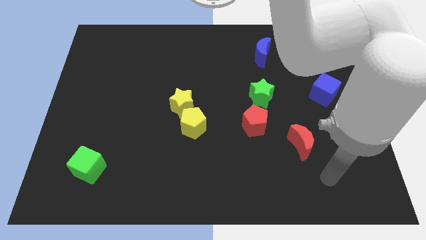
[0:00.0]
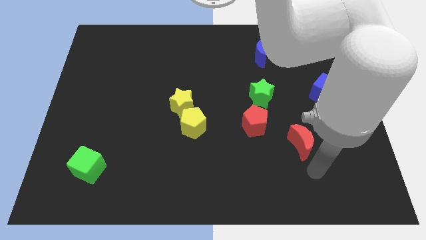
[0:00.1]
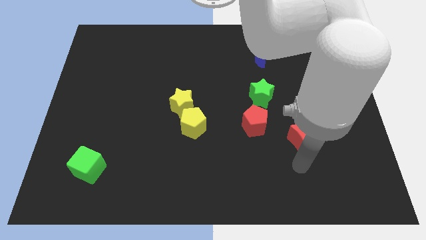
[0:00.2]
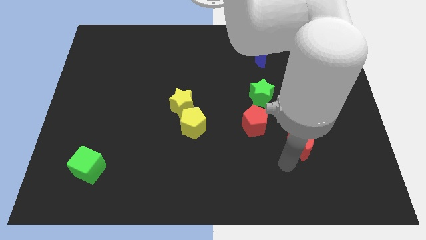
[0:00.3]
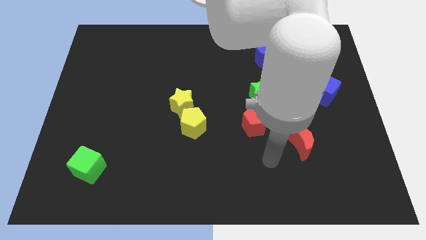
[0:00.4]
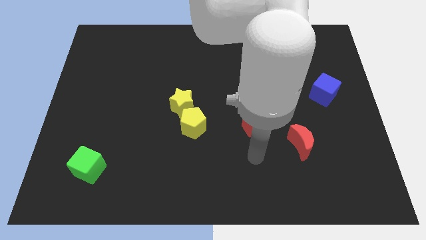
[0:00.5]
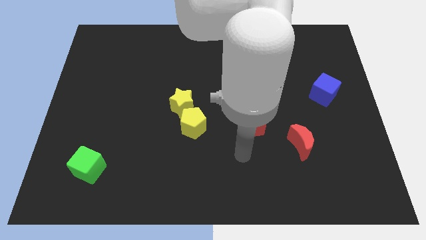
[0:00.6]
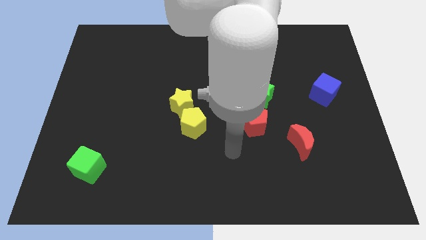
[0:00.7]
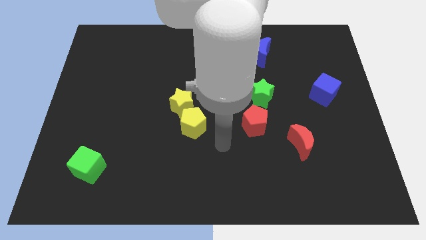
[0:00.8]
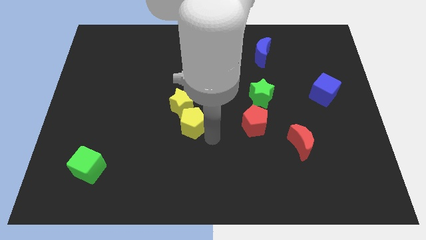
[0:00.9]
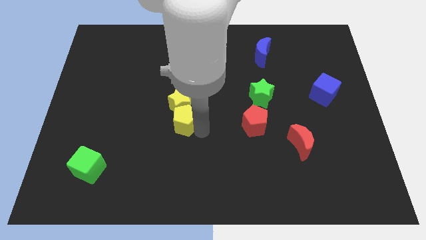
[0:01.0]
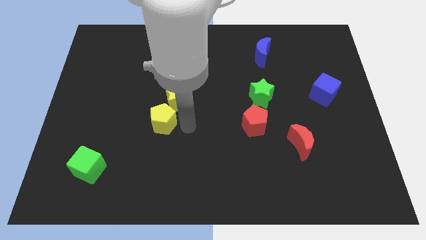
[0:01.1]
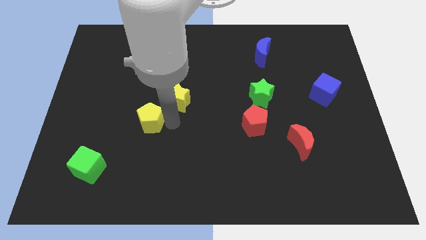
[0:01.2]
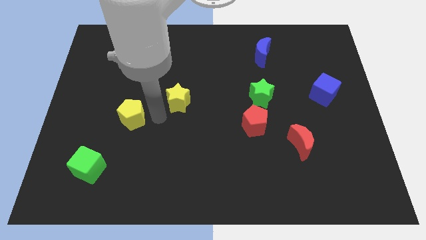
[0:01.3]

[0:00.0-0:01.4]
move the yellow star away from the yellow pentagon

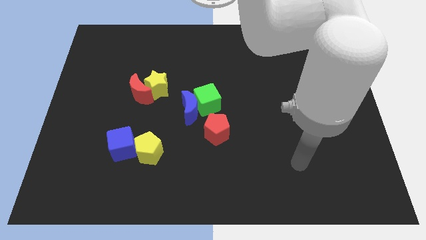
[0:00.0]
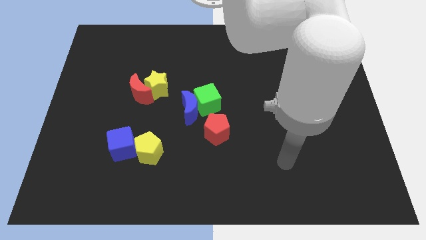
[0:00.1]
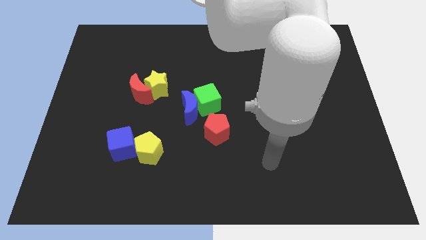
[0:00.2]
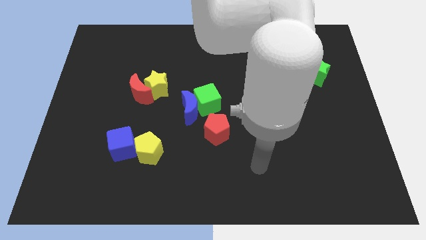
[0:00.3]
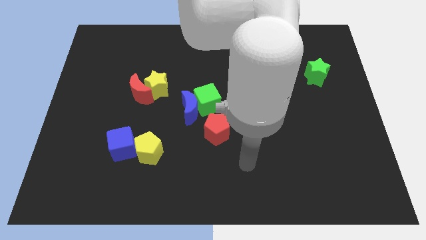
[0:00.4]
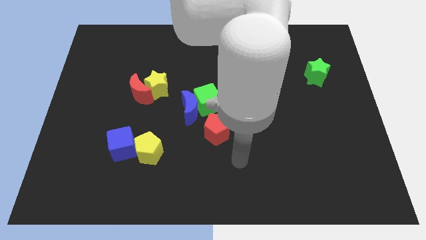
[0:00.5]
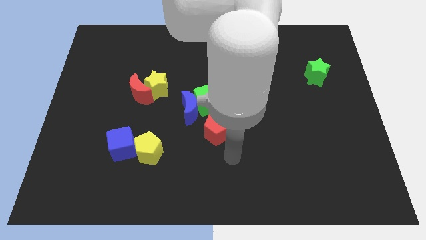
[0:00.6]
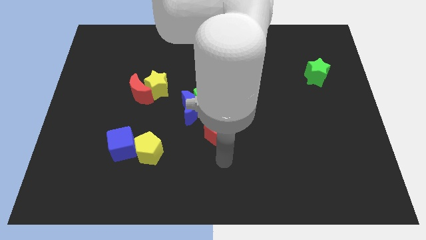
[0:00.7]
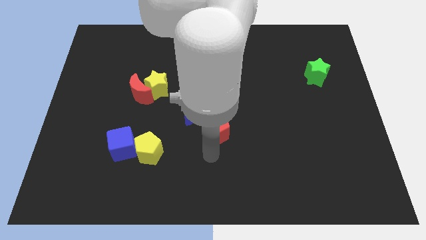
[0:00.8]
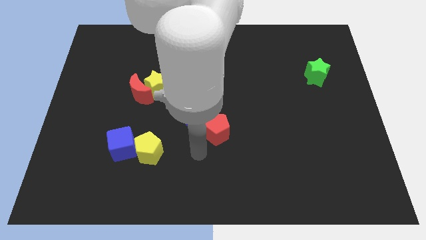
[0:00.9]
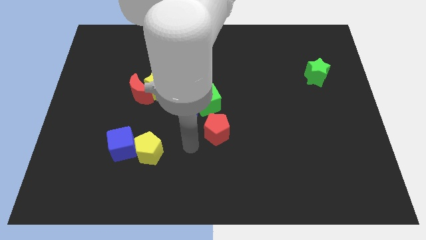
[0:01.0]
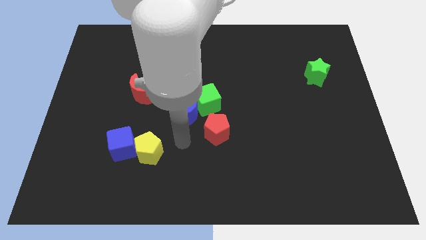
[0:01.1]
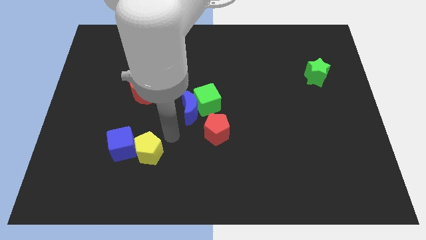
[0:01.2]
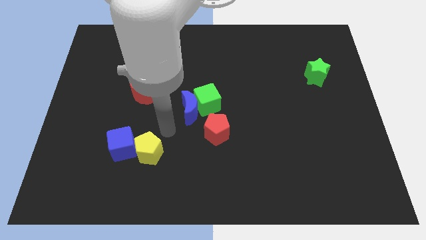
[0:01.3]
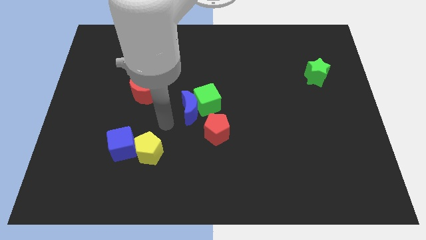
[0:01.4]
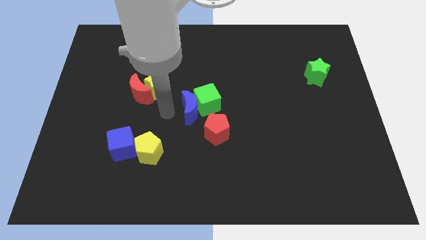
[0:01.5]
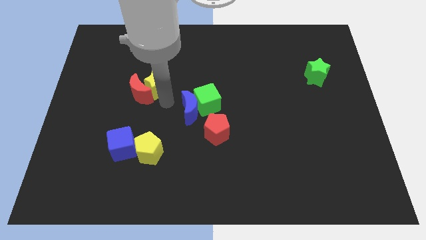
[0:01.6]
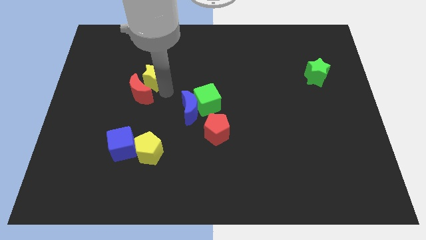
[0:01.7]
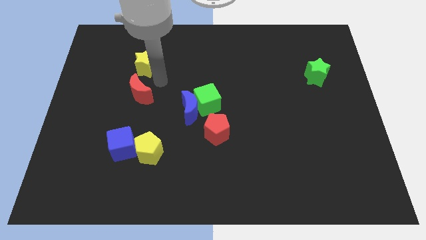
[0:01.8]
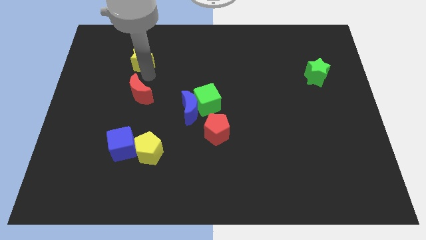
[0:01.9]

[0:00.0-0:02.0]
pull the red moon apart from the yellow star

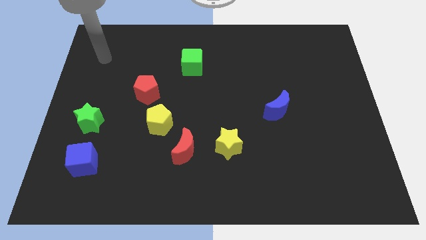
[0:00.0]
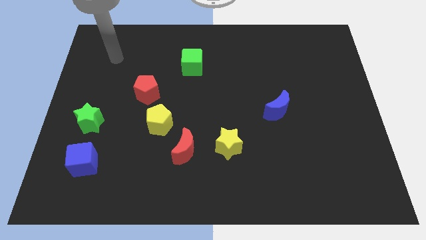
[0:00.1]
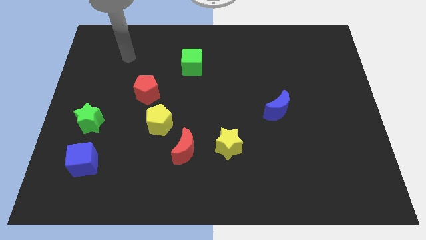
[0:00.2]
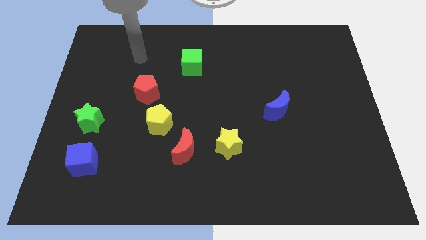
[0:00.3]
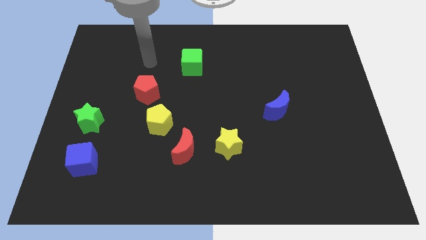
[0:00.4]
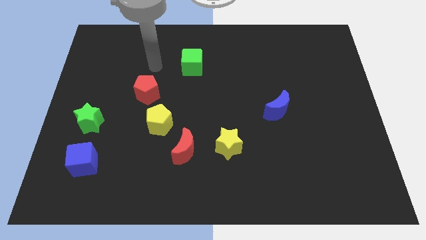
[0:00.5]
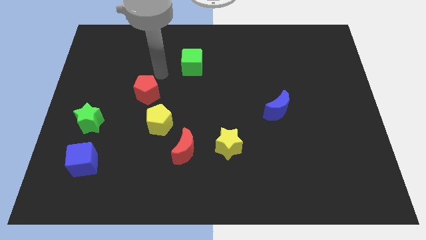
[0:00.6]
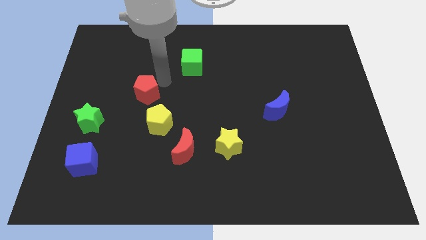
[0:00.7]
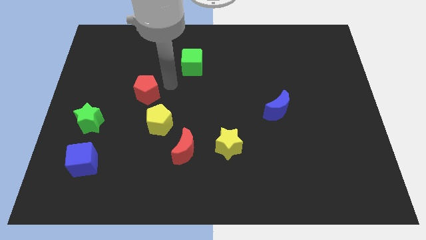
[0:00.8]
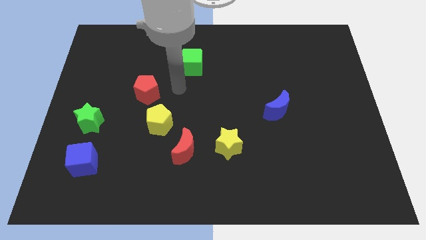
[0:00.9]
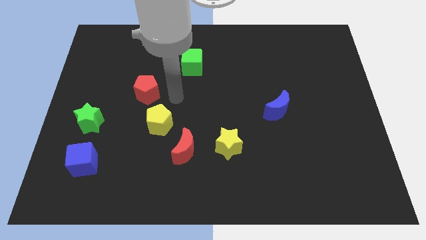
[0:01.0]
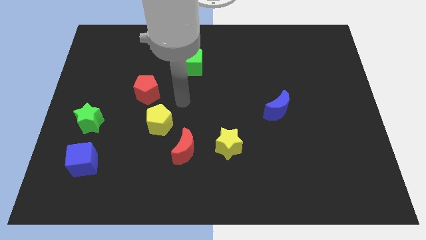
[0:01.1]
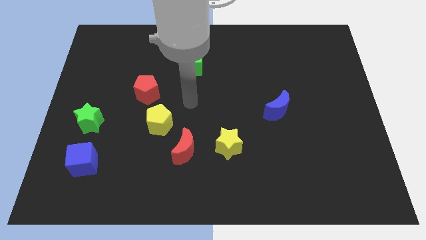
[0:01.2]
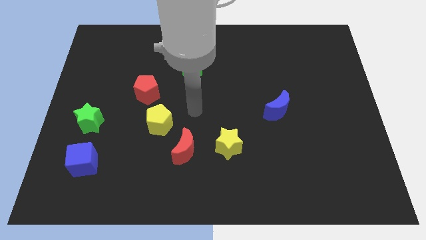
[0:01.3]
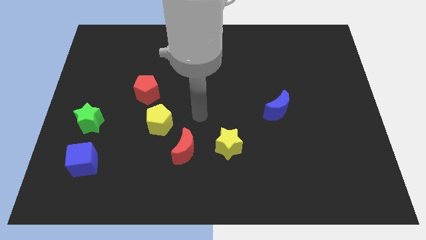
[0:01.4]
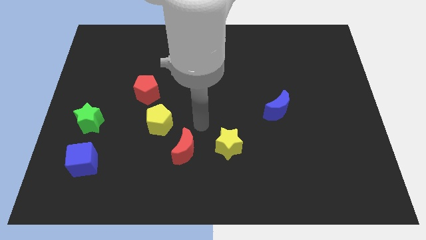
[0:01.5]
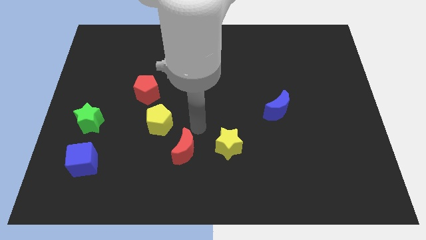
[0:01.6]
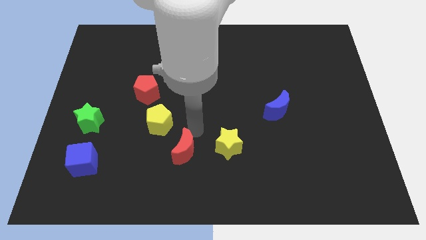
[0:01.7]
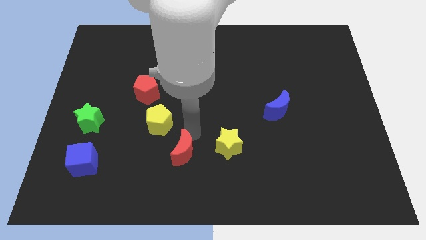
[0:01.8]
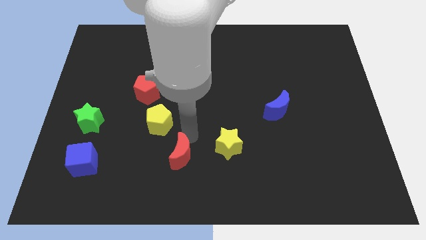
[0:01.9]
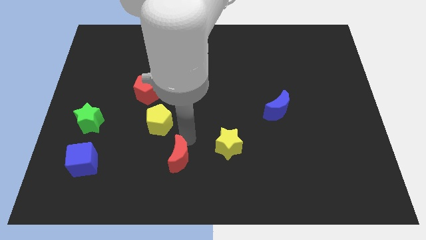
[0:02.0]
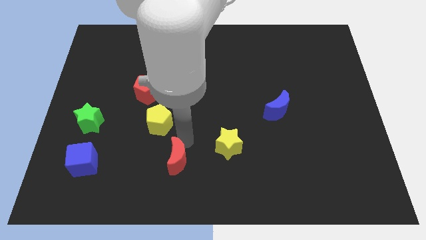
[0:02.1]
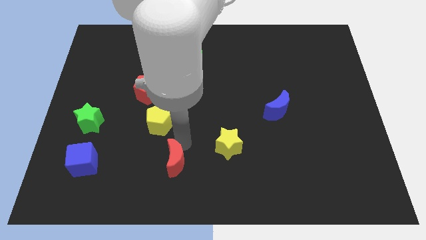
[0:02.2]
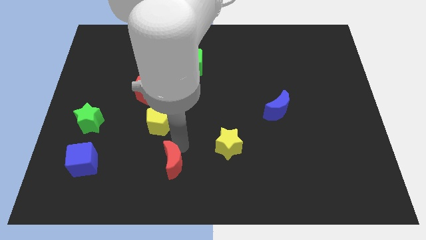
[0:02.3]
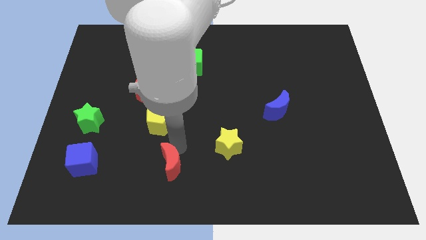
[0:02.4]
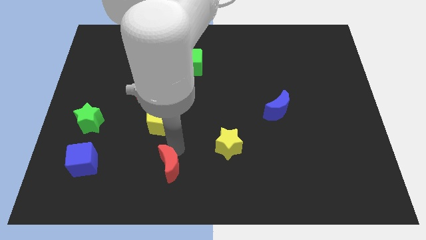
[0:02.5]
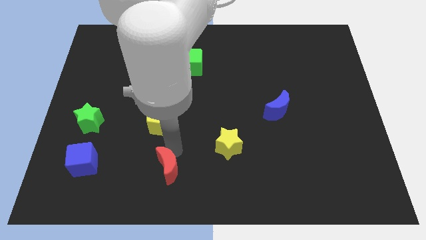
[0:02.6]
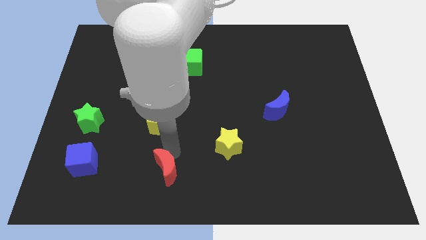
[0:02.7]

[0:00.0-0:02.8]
separate the red moon from the yellow pentagon and yellow star

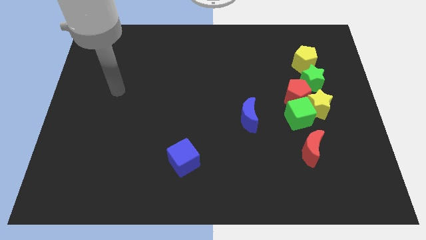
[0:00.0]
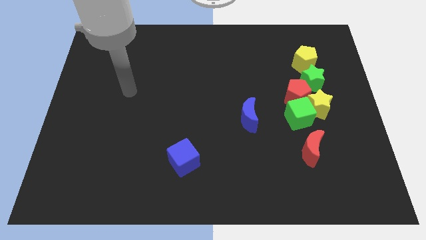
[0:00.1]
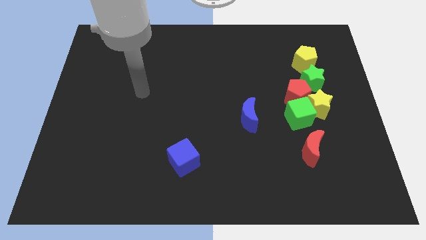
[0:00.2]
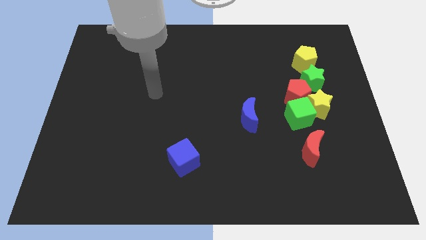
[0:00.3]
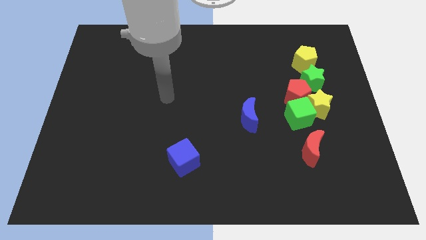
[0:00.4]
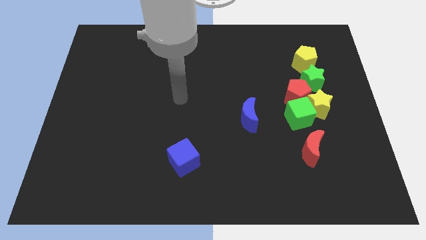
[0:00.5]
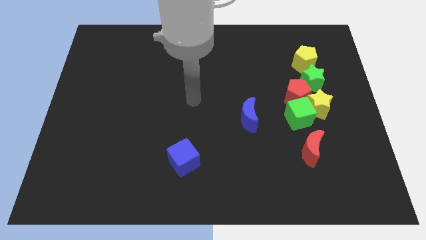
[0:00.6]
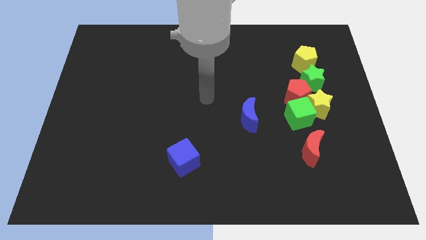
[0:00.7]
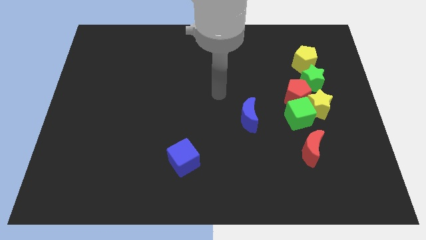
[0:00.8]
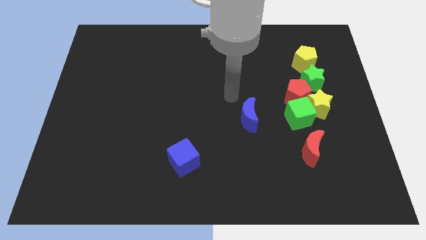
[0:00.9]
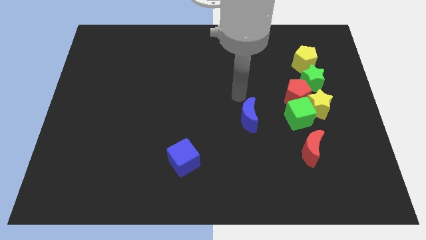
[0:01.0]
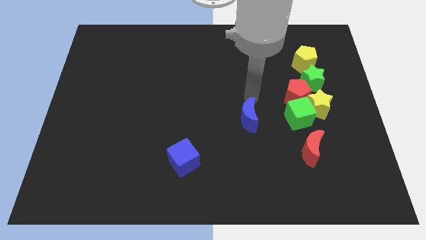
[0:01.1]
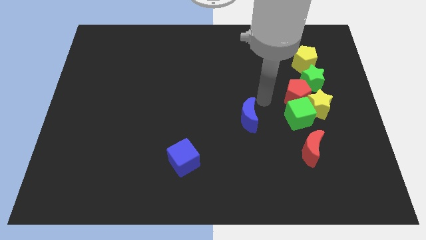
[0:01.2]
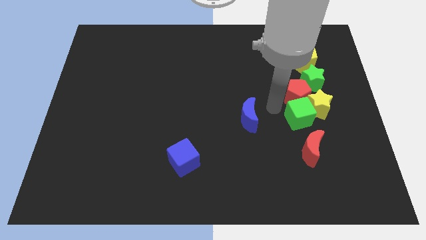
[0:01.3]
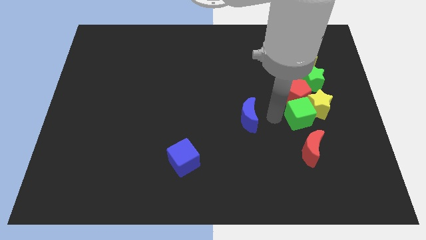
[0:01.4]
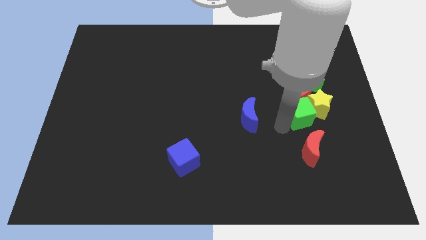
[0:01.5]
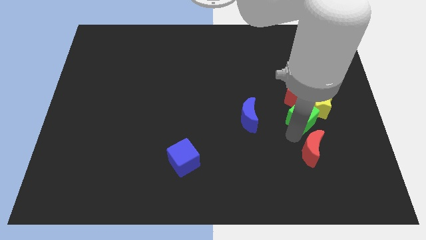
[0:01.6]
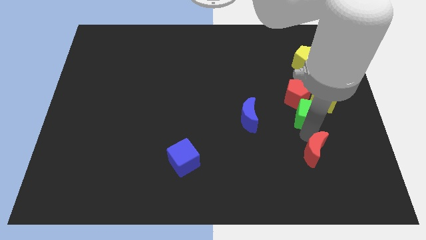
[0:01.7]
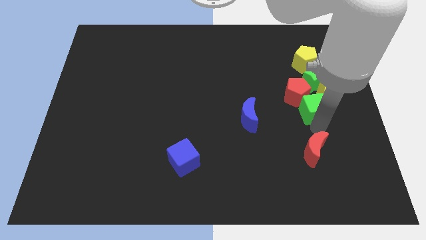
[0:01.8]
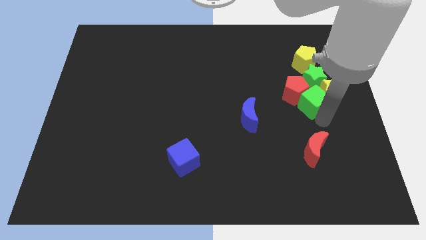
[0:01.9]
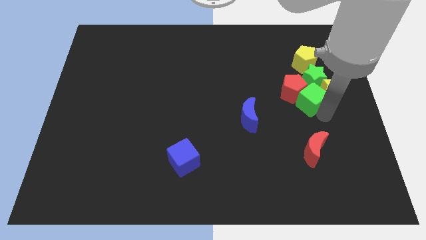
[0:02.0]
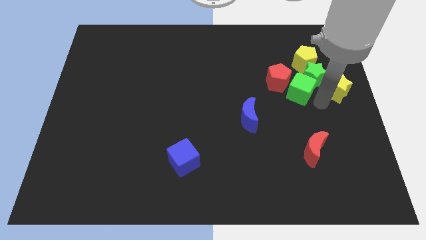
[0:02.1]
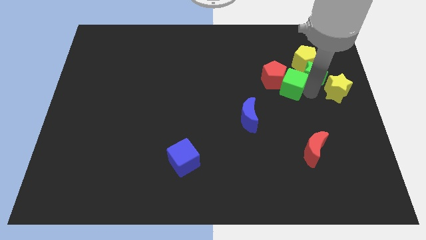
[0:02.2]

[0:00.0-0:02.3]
separate the red pentagon from the yellow star, green cube, and green star

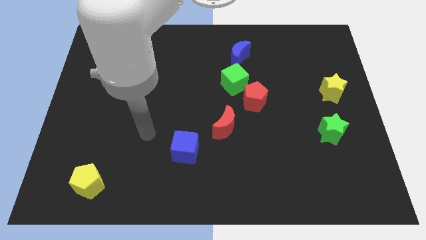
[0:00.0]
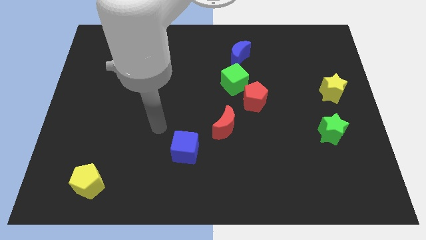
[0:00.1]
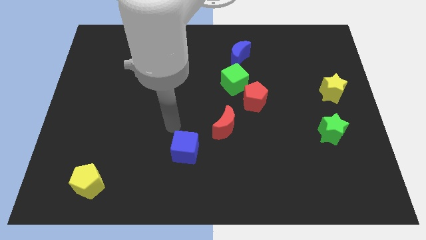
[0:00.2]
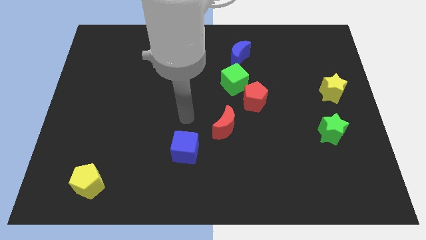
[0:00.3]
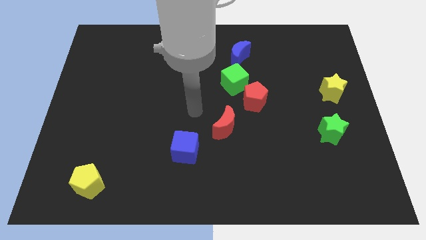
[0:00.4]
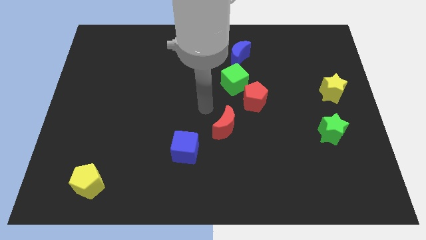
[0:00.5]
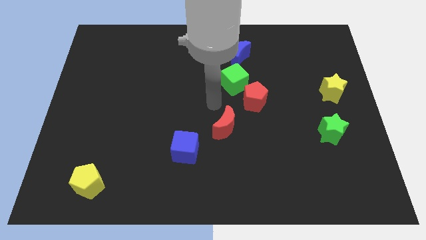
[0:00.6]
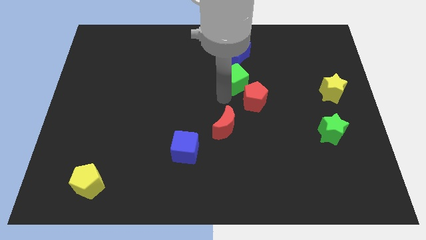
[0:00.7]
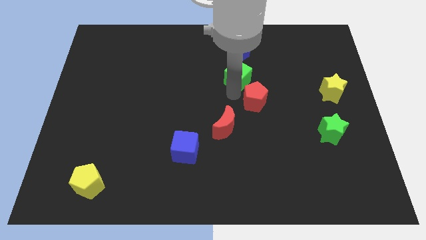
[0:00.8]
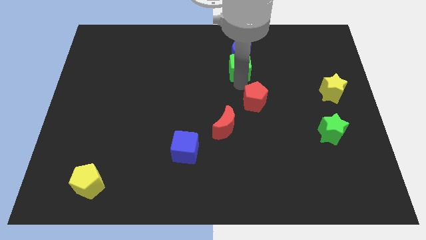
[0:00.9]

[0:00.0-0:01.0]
move the red pentagon away from the green cube
